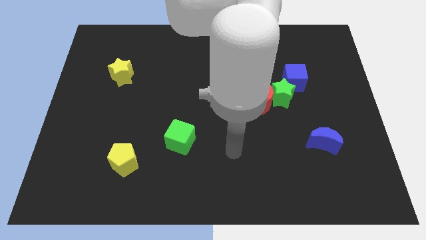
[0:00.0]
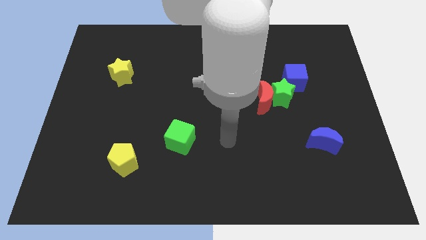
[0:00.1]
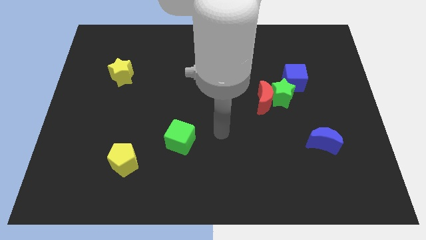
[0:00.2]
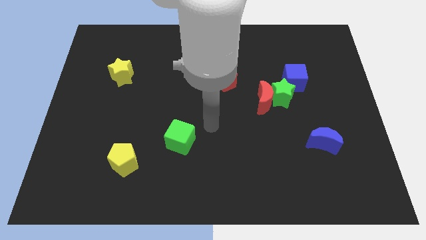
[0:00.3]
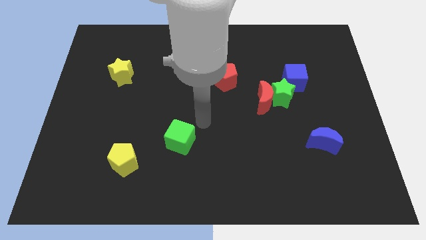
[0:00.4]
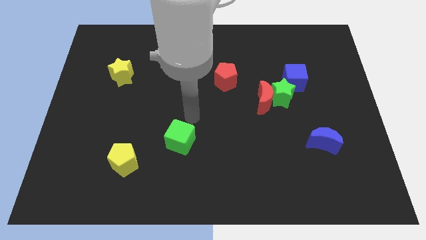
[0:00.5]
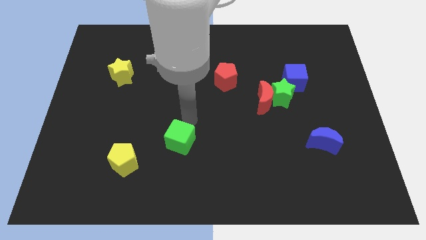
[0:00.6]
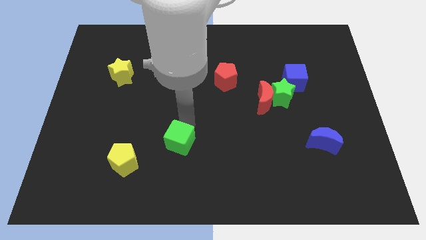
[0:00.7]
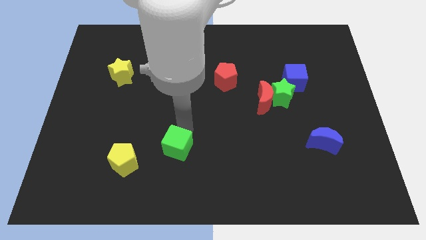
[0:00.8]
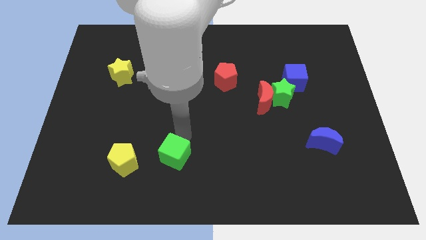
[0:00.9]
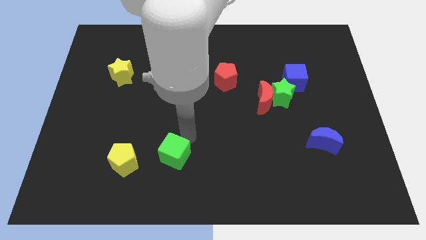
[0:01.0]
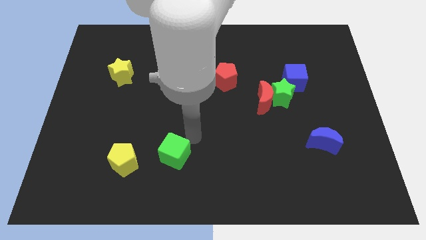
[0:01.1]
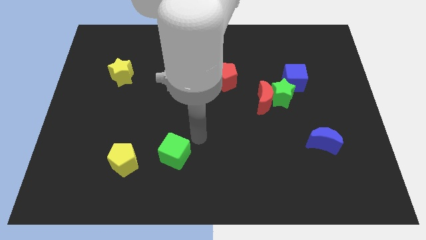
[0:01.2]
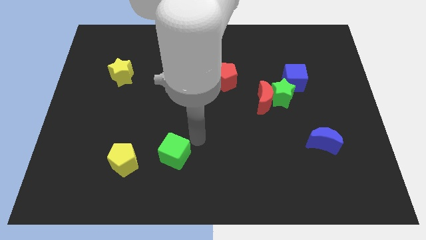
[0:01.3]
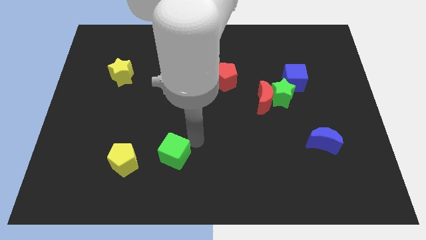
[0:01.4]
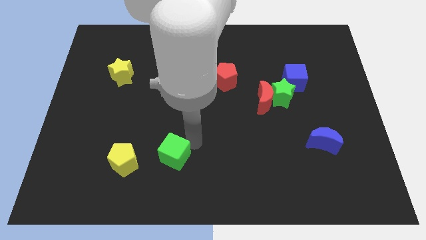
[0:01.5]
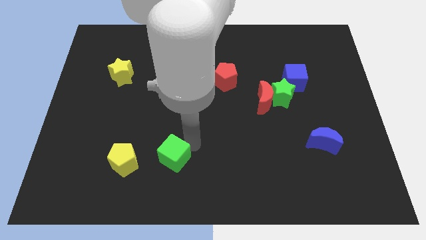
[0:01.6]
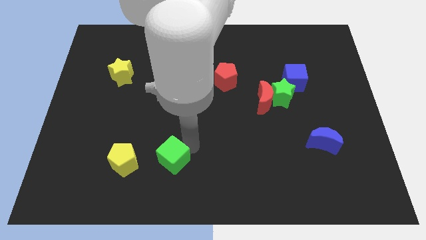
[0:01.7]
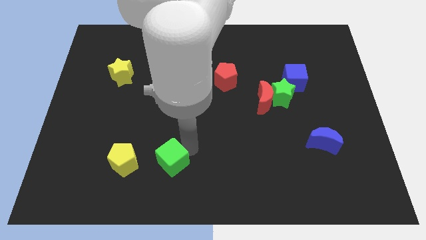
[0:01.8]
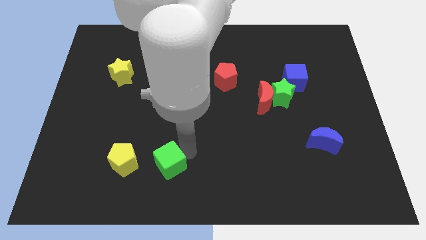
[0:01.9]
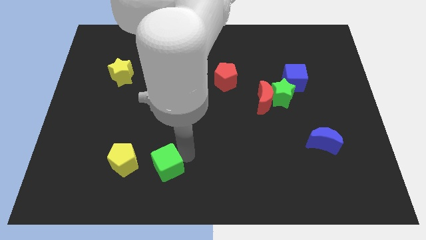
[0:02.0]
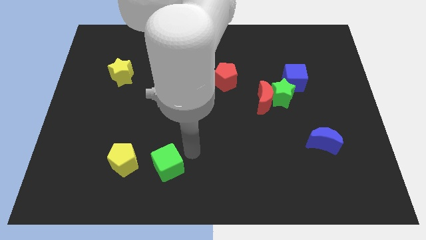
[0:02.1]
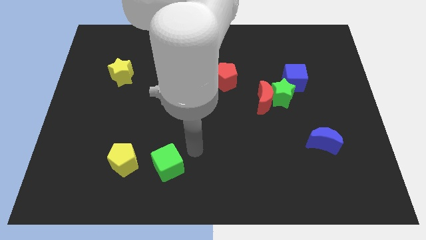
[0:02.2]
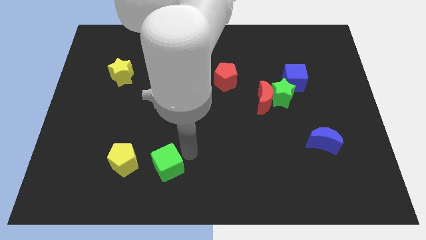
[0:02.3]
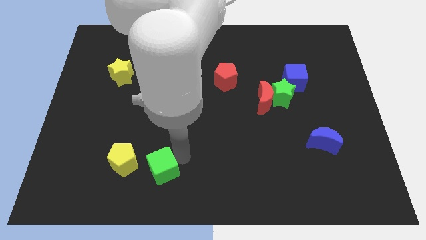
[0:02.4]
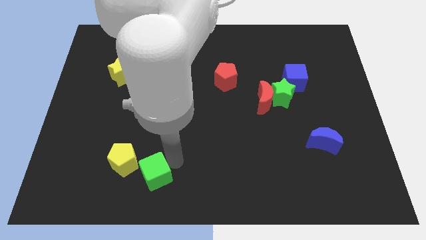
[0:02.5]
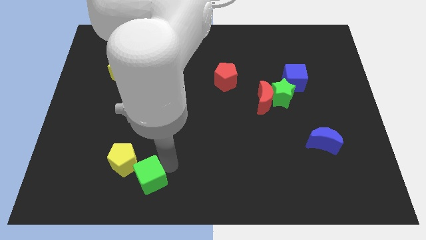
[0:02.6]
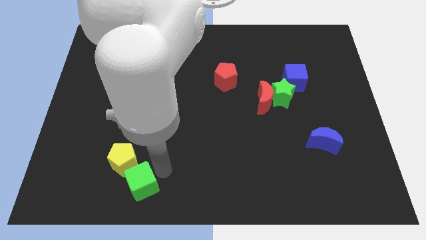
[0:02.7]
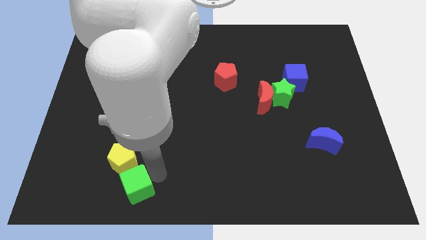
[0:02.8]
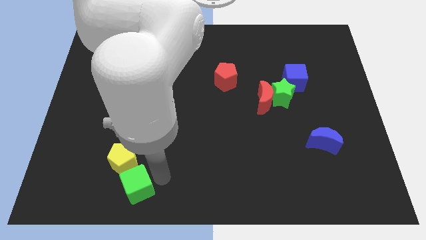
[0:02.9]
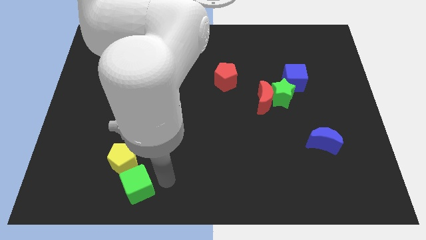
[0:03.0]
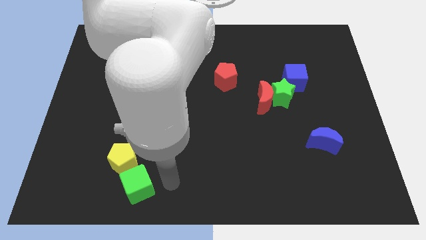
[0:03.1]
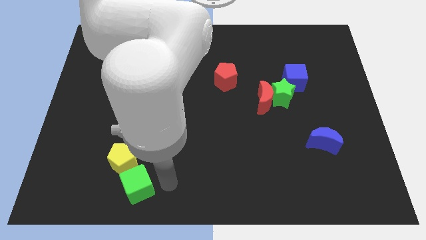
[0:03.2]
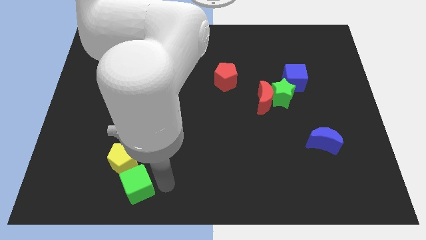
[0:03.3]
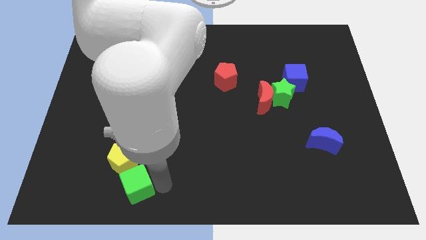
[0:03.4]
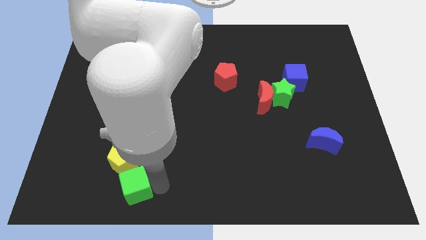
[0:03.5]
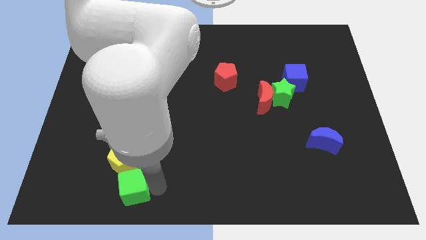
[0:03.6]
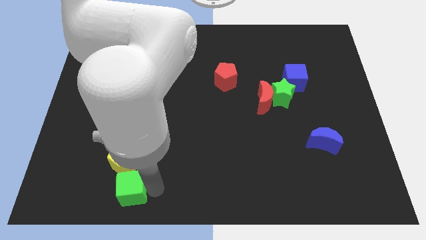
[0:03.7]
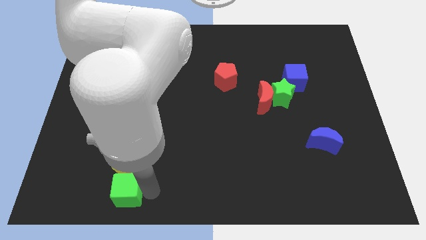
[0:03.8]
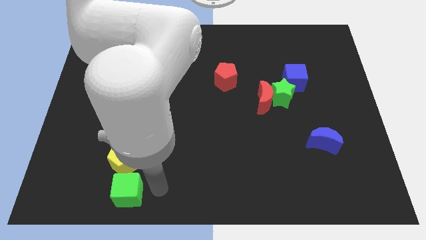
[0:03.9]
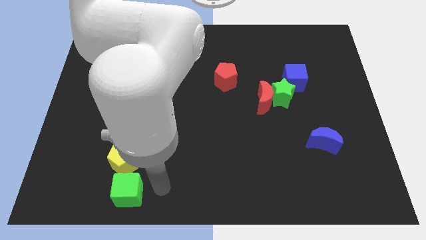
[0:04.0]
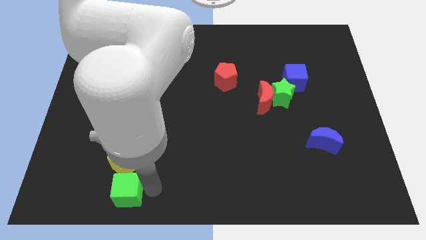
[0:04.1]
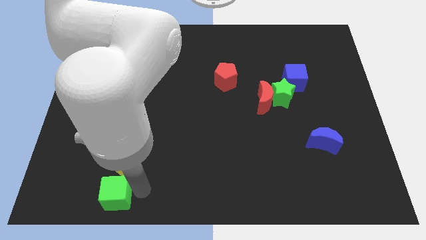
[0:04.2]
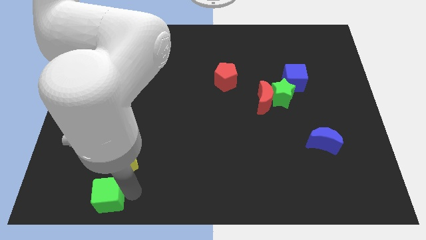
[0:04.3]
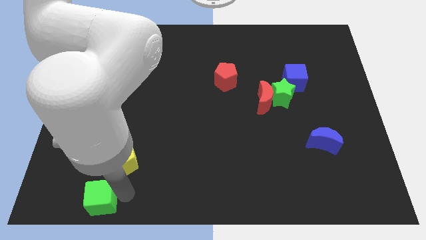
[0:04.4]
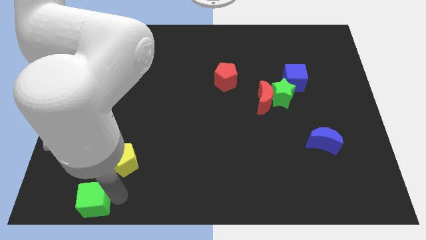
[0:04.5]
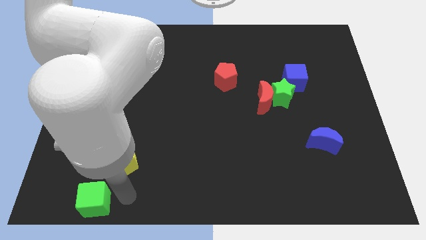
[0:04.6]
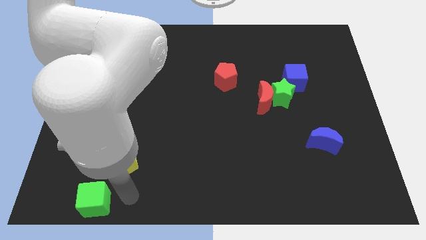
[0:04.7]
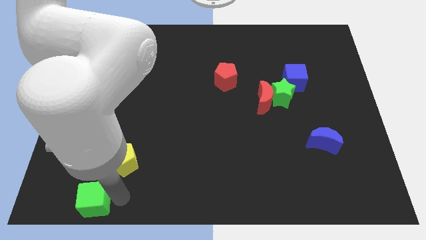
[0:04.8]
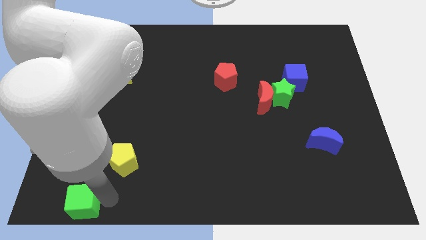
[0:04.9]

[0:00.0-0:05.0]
push the green cube to the bottom left

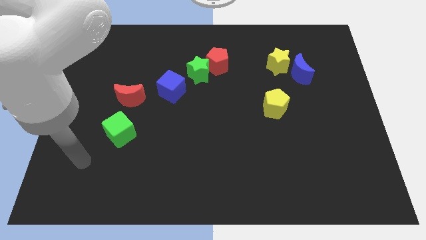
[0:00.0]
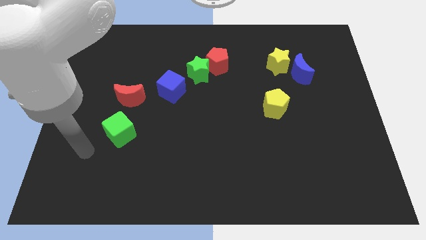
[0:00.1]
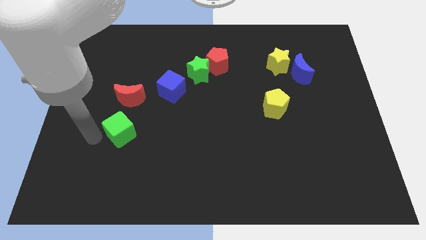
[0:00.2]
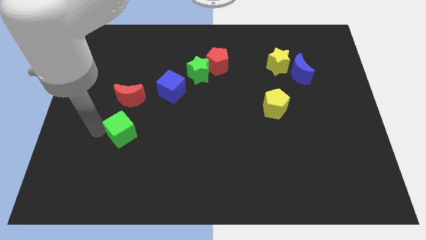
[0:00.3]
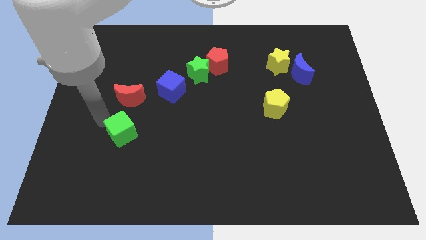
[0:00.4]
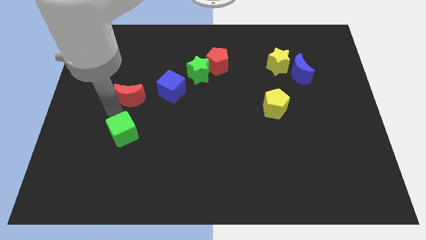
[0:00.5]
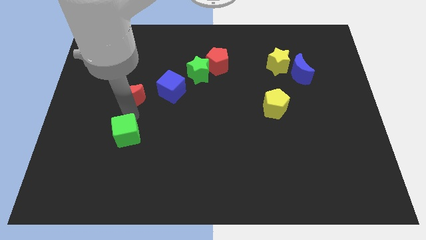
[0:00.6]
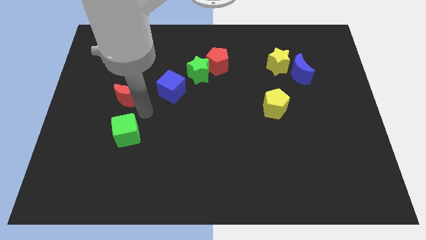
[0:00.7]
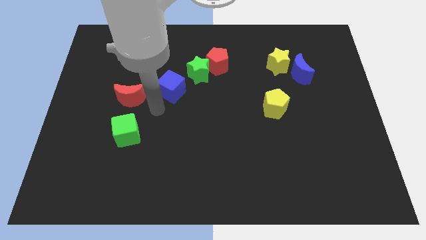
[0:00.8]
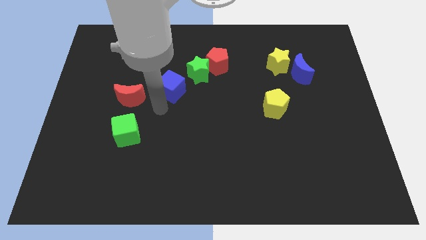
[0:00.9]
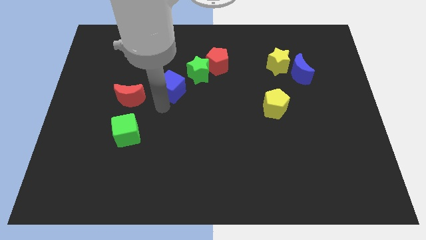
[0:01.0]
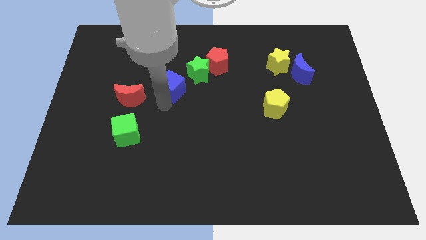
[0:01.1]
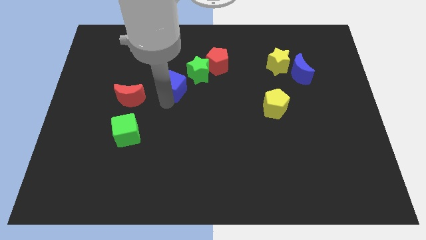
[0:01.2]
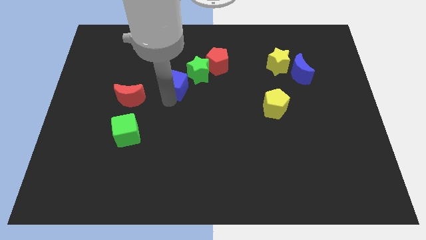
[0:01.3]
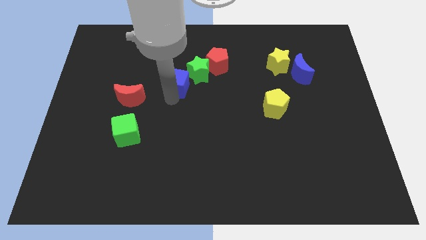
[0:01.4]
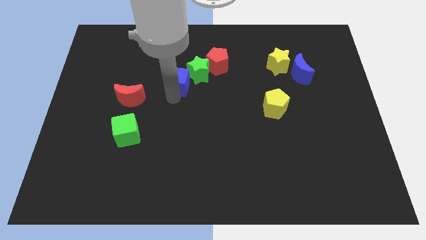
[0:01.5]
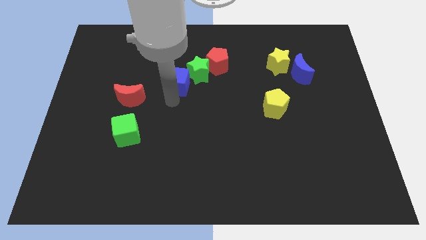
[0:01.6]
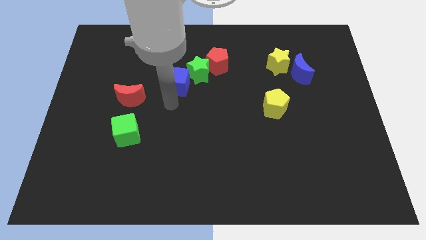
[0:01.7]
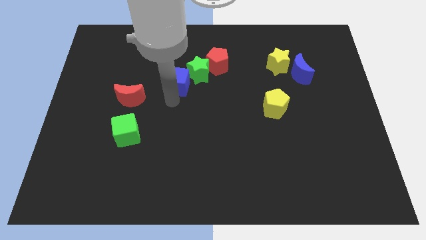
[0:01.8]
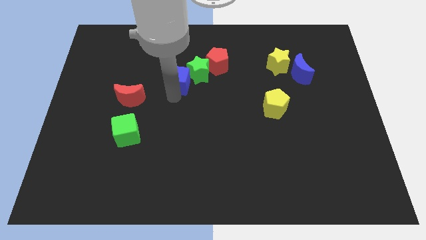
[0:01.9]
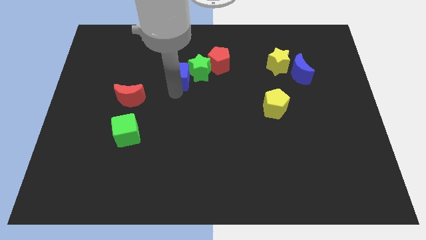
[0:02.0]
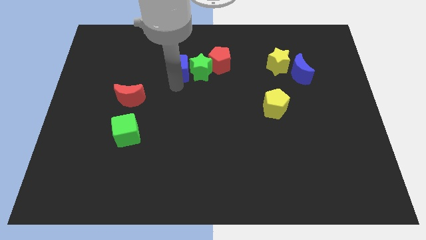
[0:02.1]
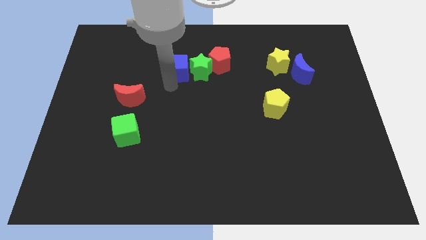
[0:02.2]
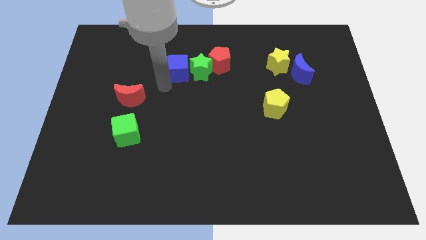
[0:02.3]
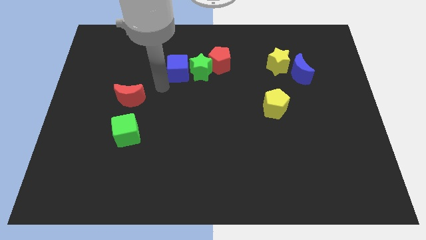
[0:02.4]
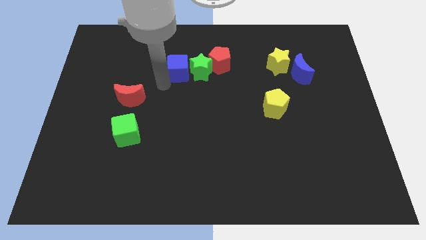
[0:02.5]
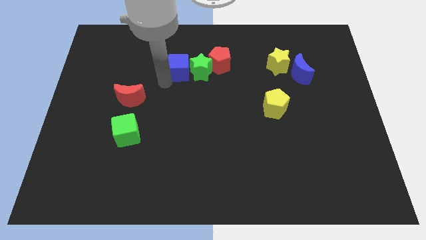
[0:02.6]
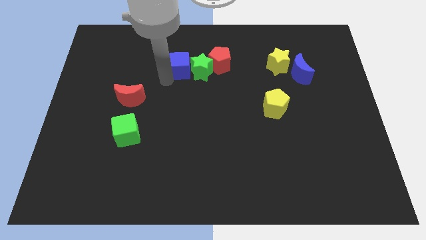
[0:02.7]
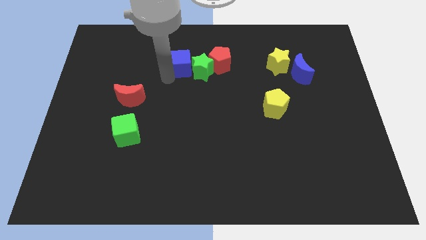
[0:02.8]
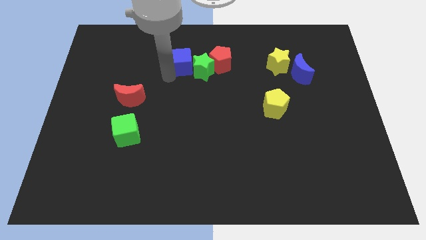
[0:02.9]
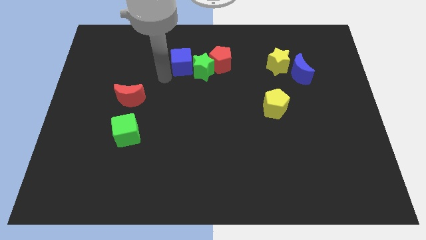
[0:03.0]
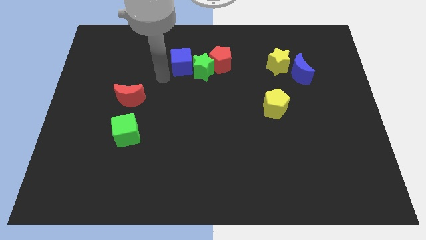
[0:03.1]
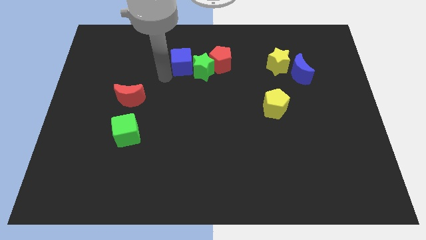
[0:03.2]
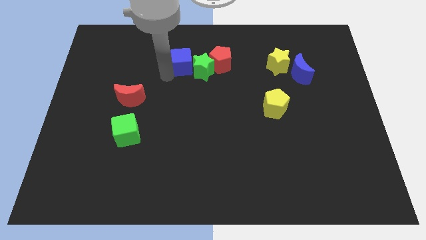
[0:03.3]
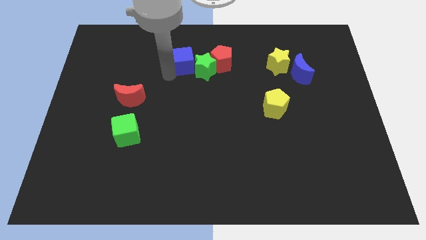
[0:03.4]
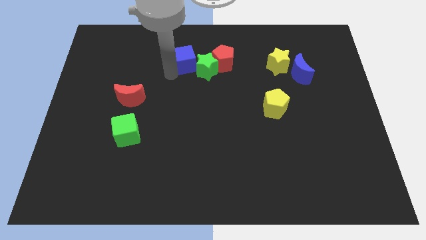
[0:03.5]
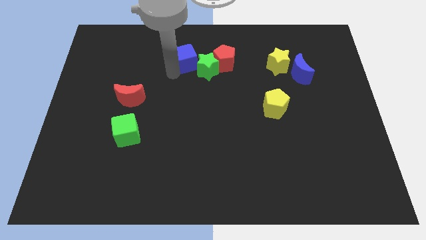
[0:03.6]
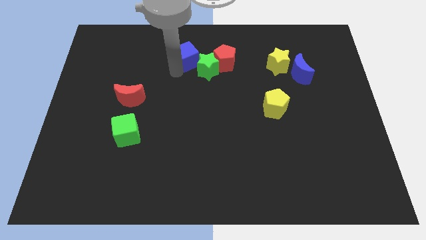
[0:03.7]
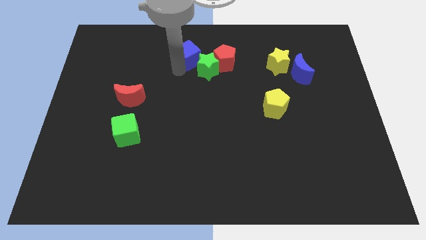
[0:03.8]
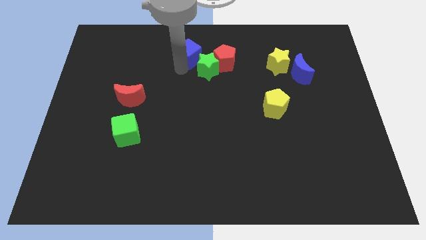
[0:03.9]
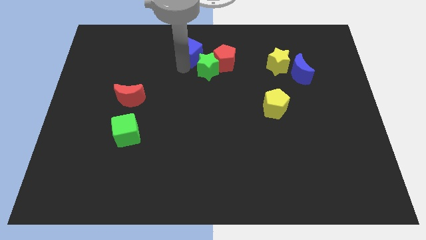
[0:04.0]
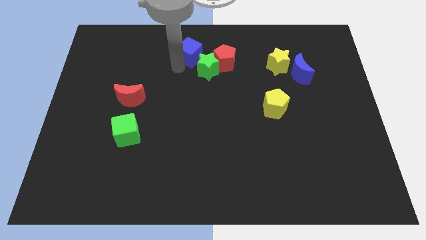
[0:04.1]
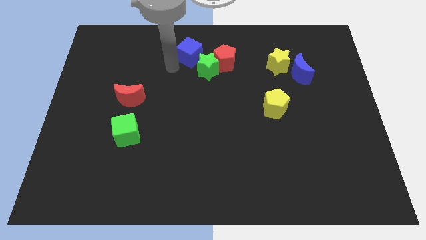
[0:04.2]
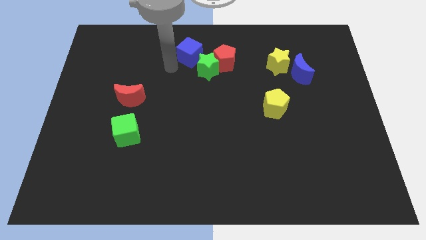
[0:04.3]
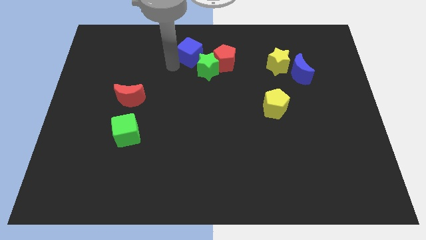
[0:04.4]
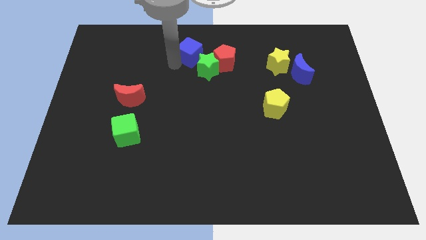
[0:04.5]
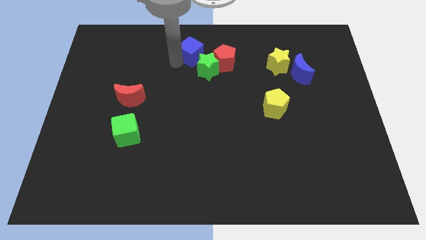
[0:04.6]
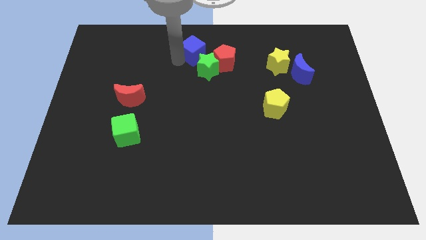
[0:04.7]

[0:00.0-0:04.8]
move the blue cube to the top side
